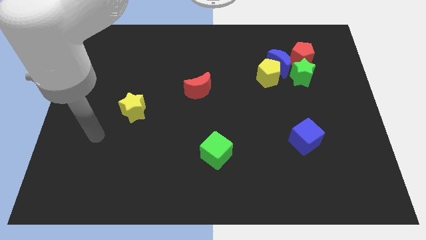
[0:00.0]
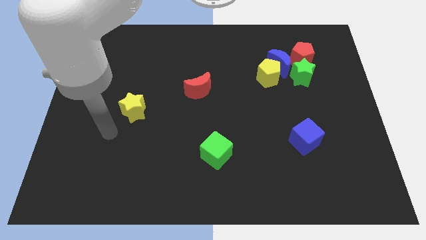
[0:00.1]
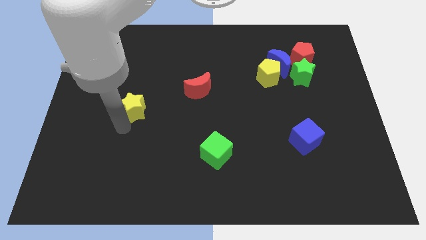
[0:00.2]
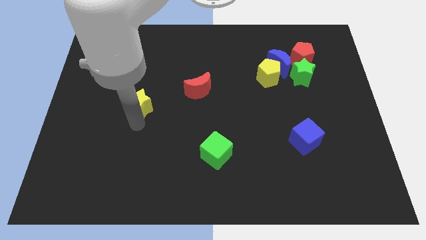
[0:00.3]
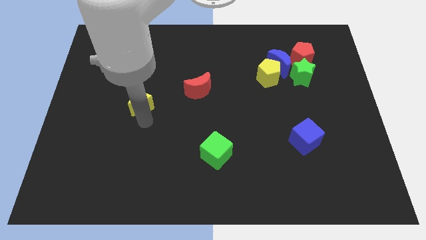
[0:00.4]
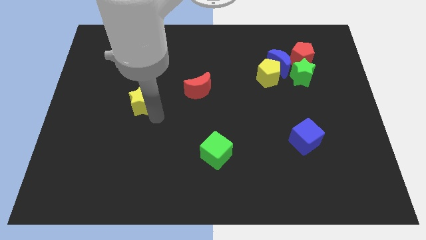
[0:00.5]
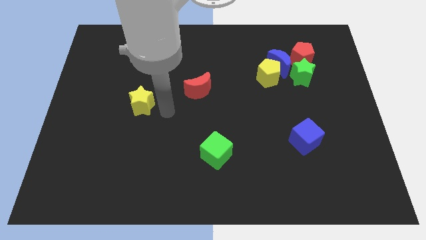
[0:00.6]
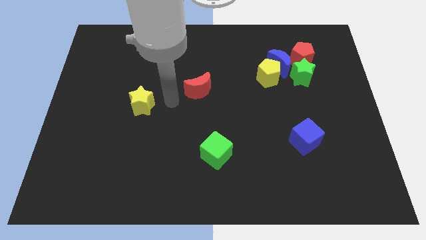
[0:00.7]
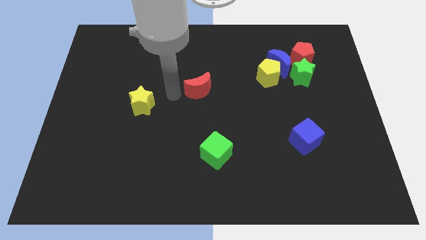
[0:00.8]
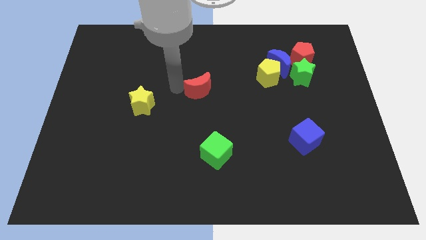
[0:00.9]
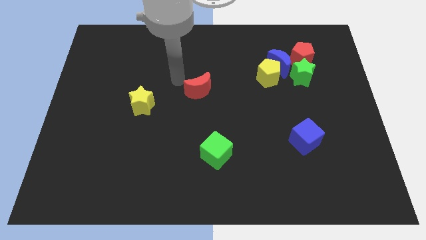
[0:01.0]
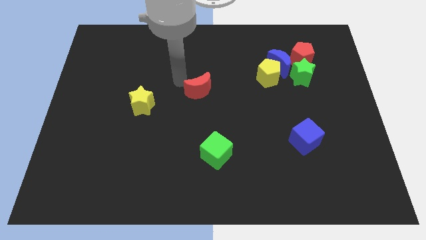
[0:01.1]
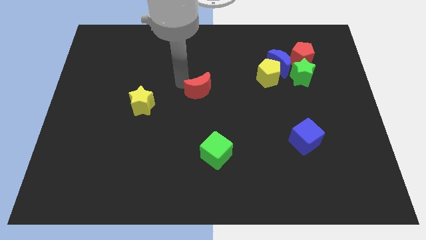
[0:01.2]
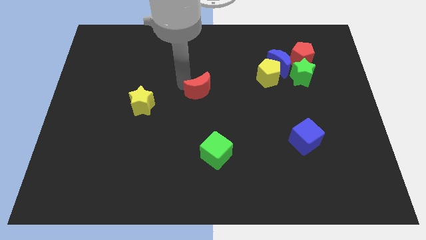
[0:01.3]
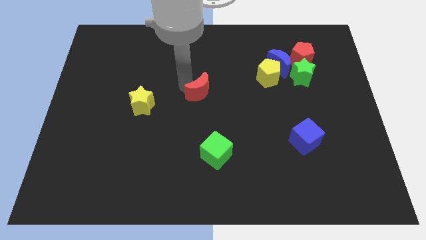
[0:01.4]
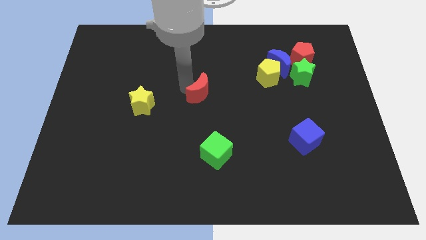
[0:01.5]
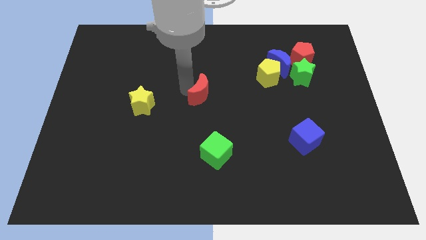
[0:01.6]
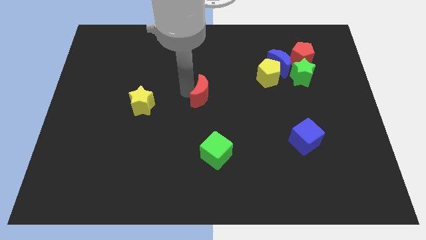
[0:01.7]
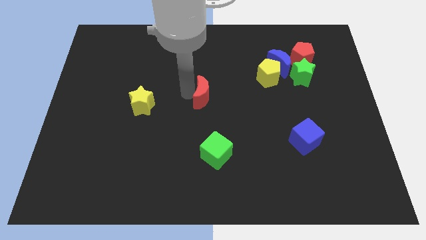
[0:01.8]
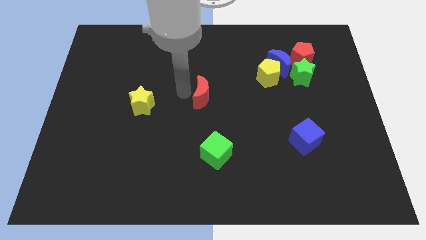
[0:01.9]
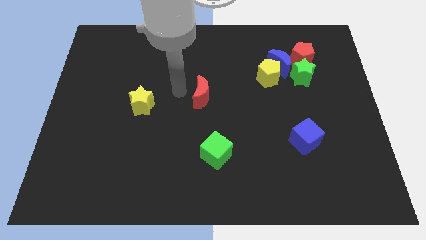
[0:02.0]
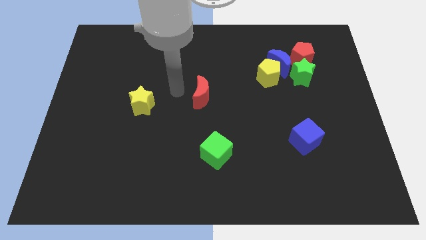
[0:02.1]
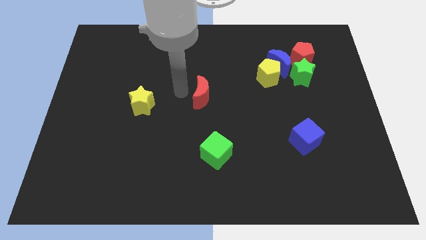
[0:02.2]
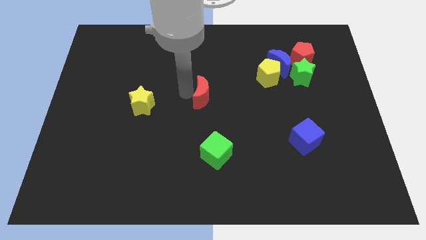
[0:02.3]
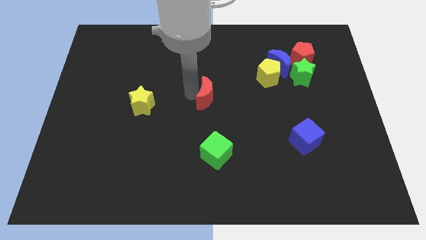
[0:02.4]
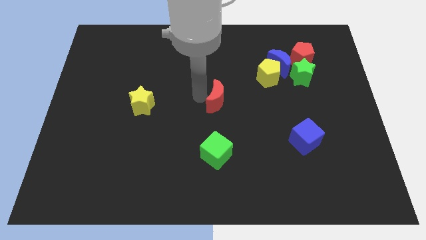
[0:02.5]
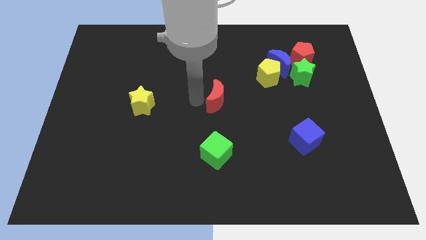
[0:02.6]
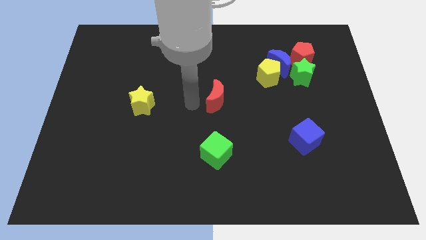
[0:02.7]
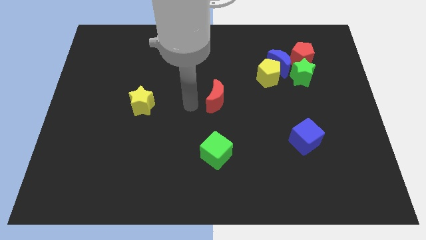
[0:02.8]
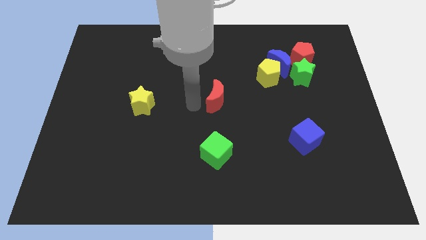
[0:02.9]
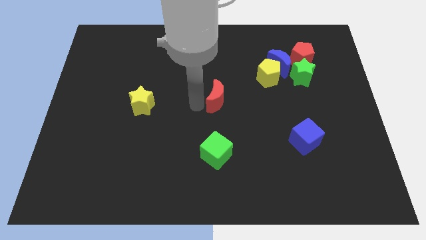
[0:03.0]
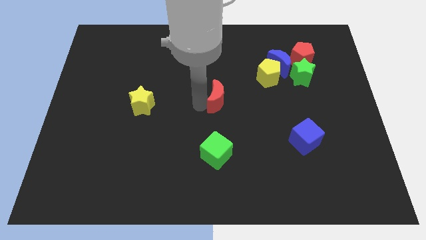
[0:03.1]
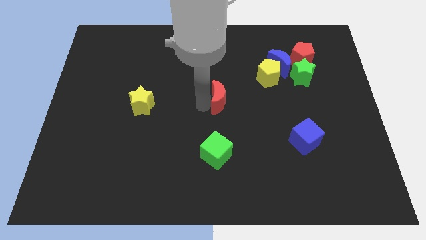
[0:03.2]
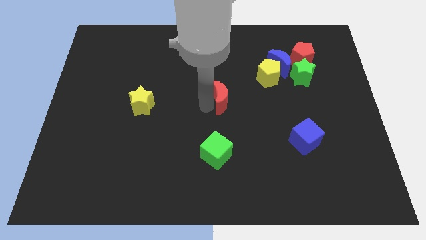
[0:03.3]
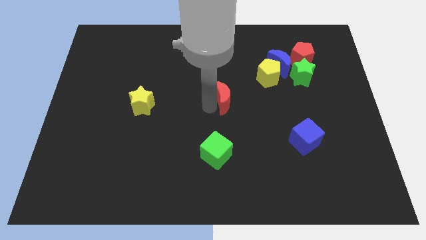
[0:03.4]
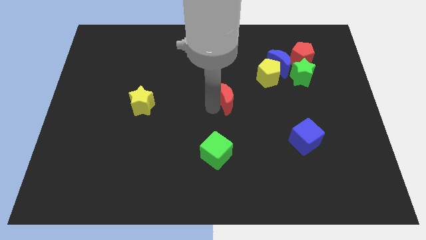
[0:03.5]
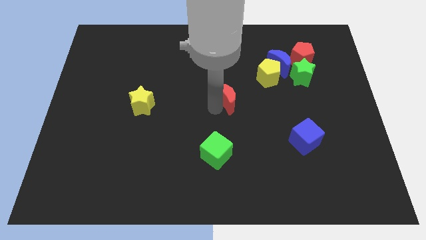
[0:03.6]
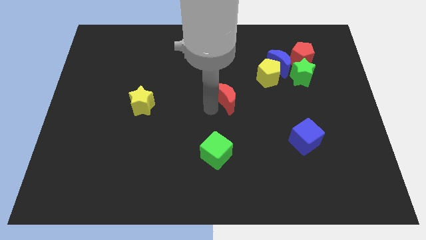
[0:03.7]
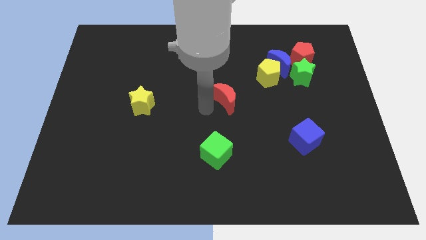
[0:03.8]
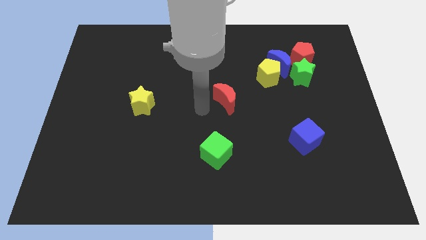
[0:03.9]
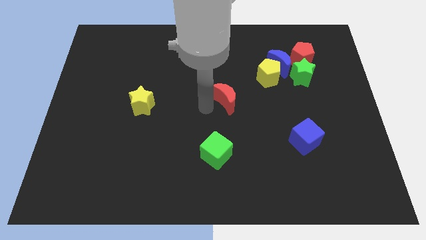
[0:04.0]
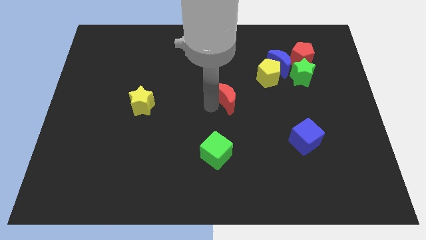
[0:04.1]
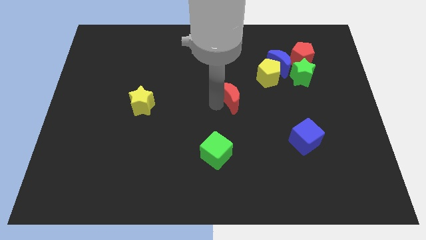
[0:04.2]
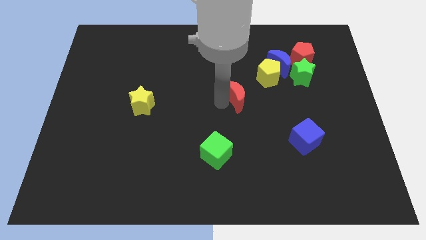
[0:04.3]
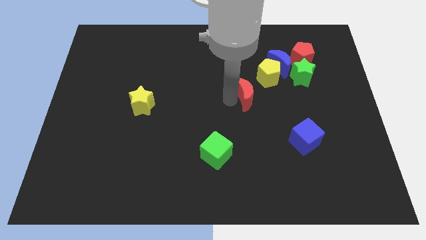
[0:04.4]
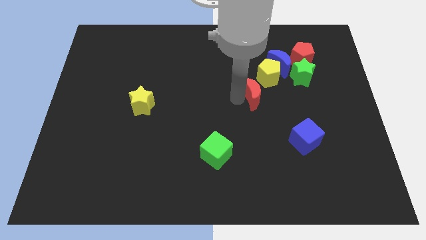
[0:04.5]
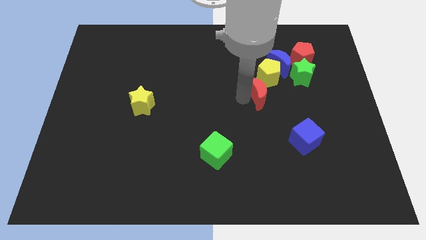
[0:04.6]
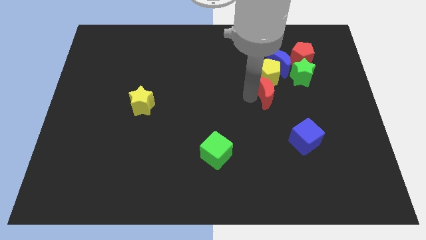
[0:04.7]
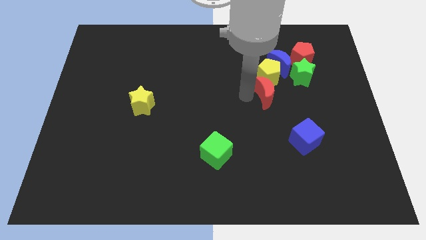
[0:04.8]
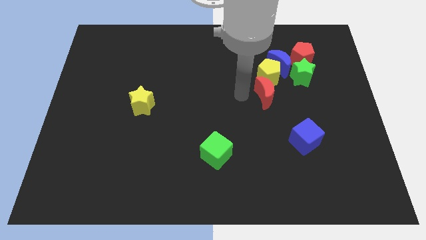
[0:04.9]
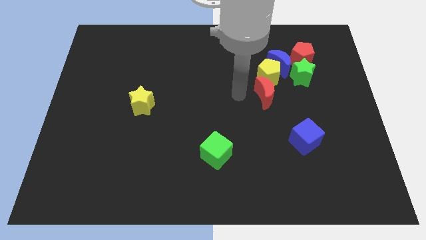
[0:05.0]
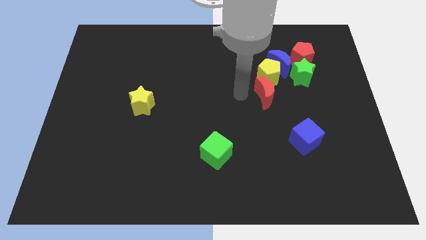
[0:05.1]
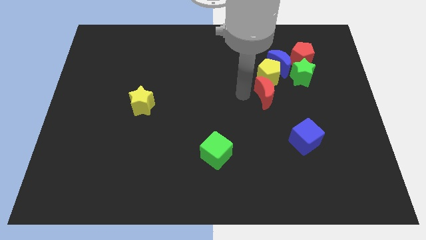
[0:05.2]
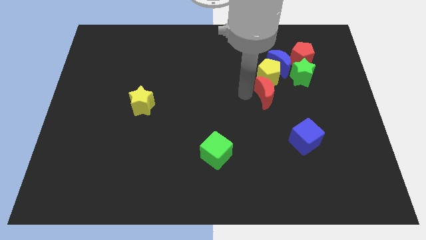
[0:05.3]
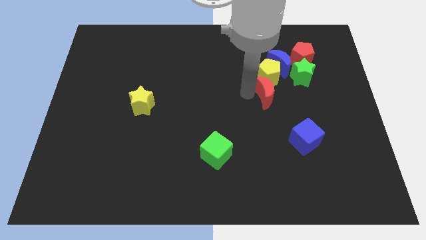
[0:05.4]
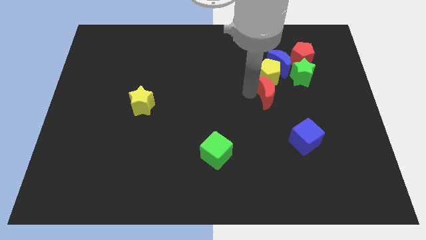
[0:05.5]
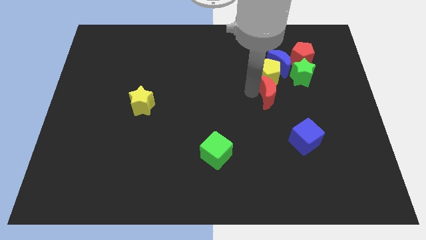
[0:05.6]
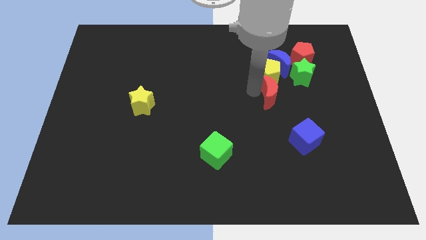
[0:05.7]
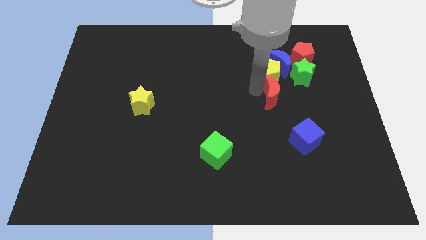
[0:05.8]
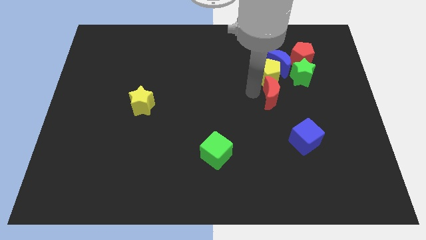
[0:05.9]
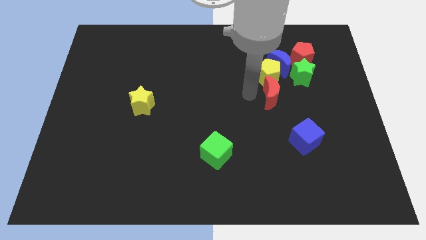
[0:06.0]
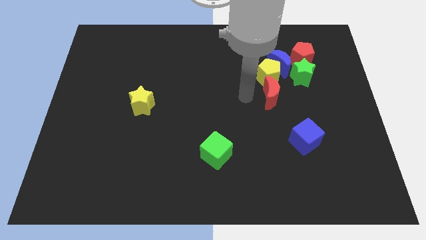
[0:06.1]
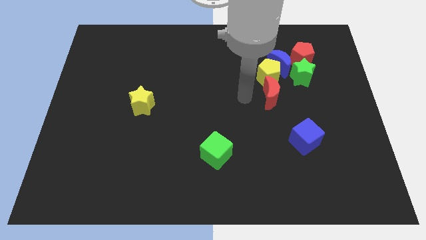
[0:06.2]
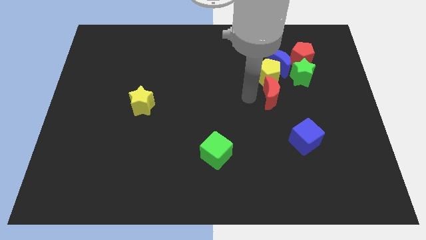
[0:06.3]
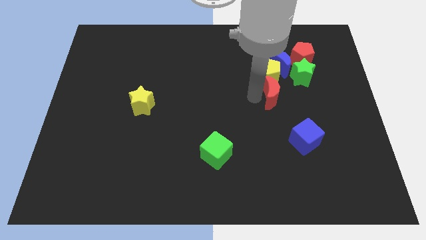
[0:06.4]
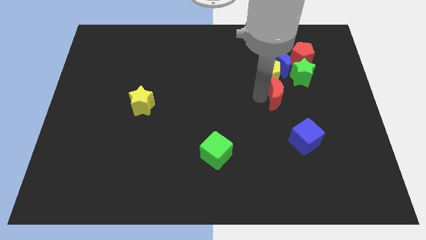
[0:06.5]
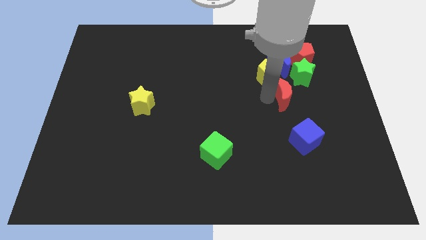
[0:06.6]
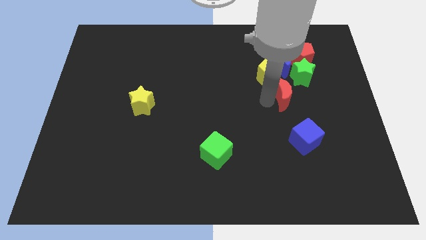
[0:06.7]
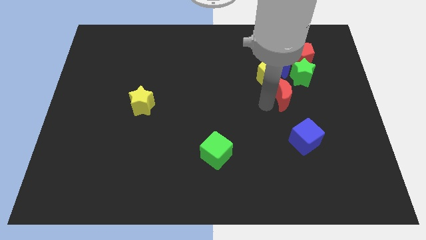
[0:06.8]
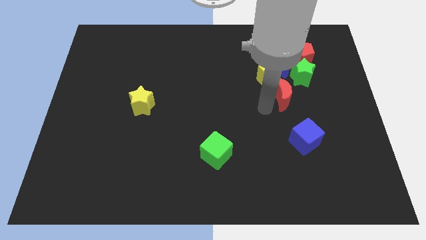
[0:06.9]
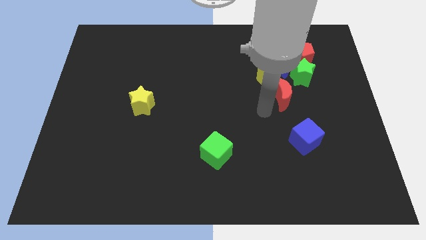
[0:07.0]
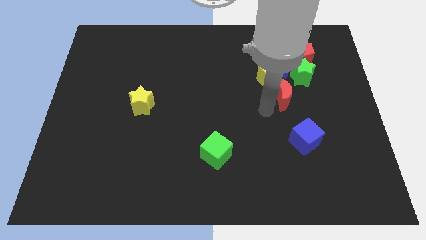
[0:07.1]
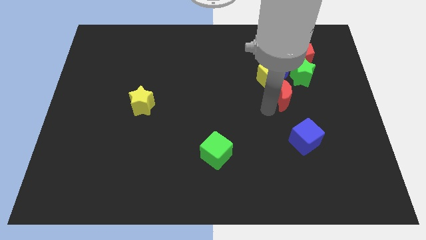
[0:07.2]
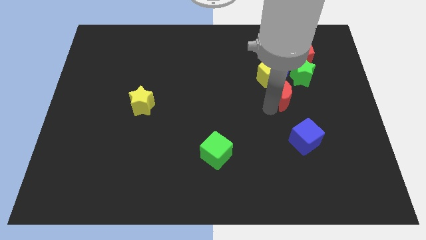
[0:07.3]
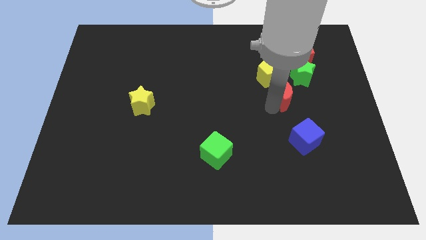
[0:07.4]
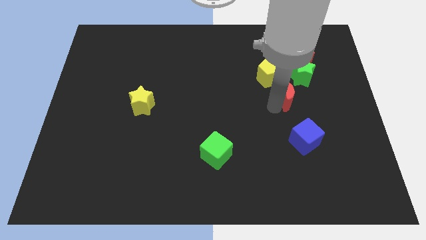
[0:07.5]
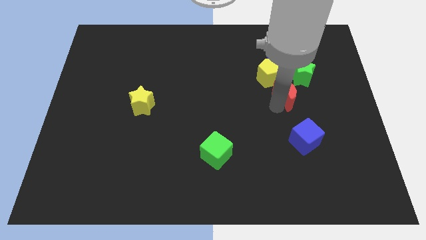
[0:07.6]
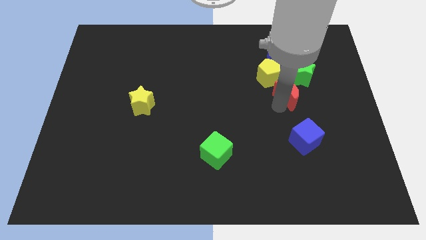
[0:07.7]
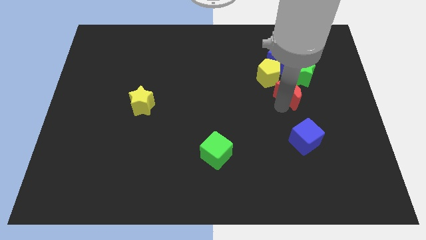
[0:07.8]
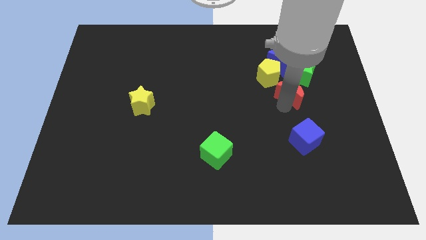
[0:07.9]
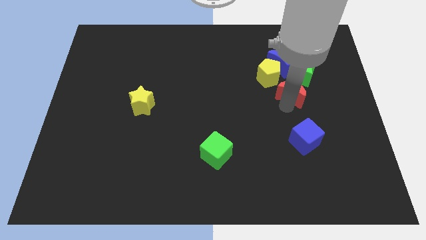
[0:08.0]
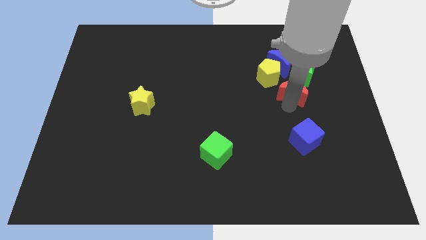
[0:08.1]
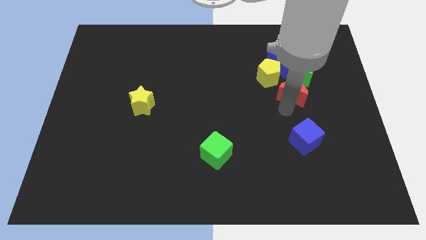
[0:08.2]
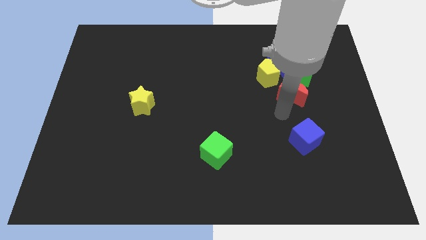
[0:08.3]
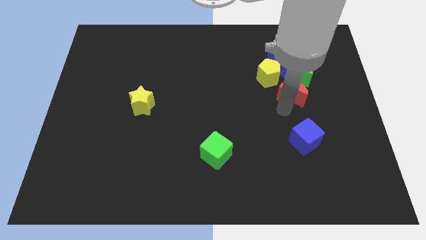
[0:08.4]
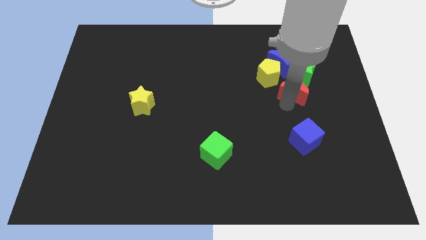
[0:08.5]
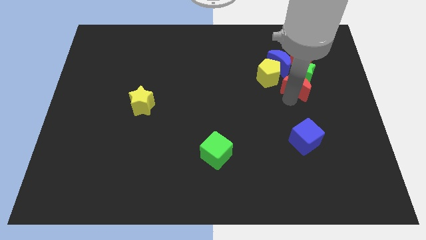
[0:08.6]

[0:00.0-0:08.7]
slide the red moon close to the green star
